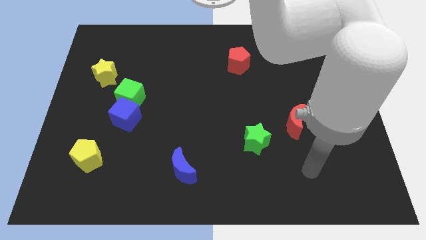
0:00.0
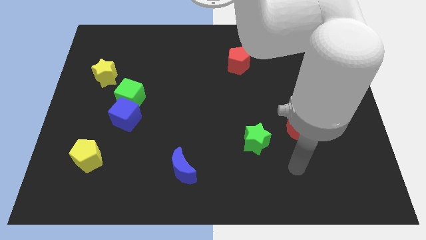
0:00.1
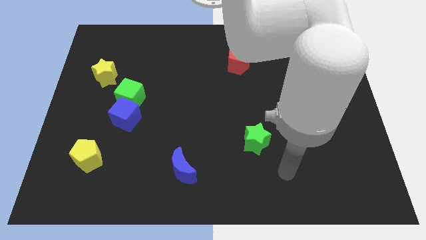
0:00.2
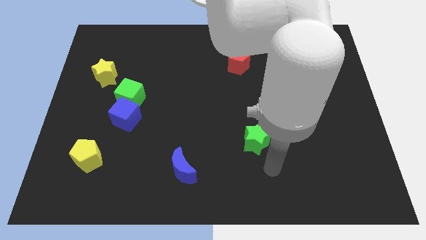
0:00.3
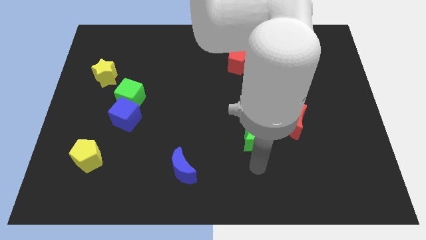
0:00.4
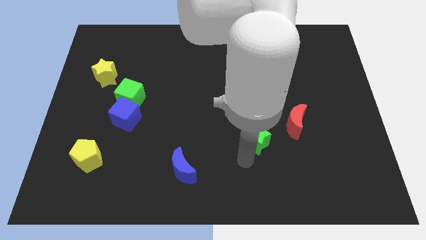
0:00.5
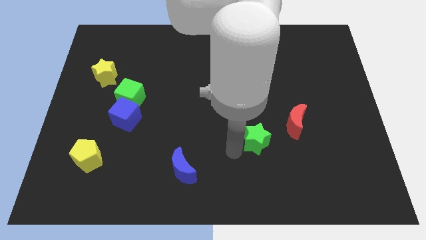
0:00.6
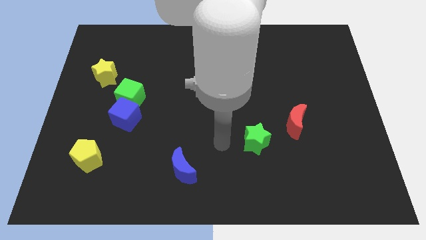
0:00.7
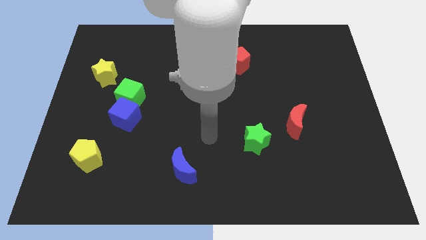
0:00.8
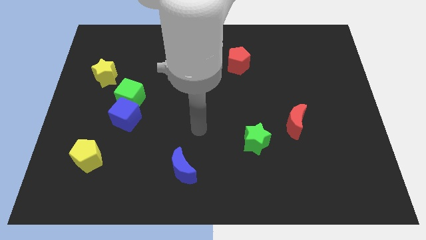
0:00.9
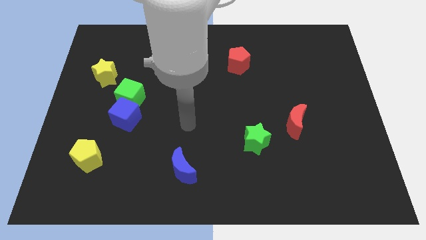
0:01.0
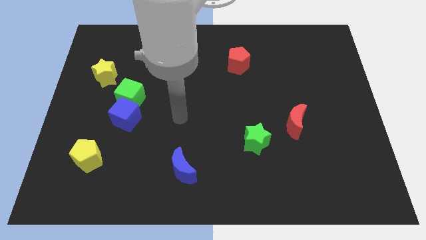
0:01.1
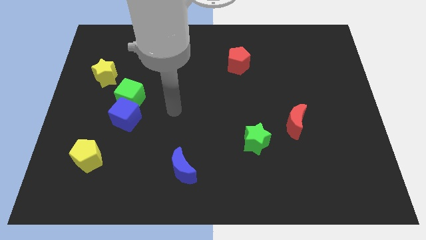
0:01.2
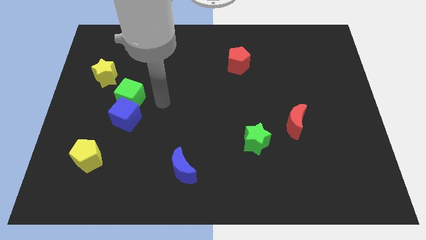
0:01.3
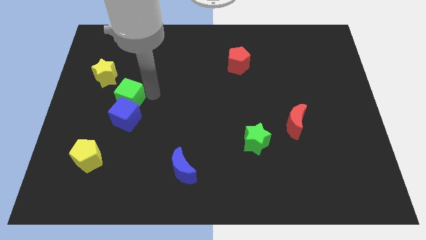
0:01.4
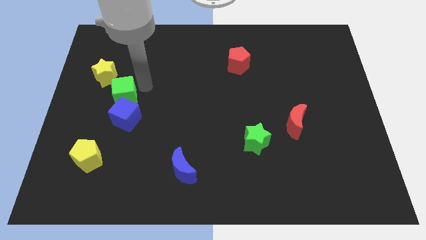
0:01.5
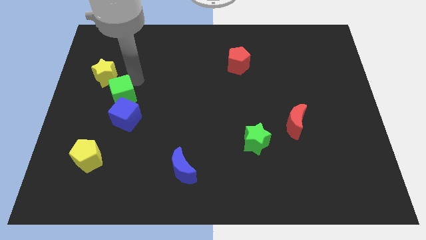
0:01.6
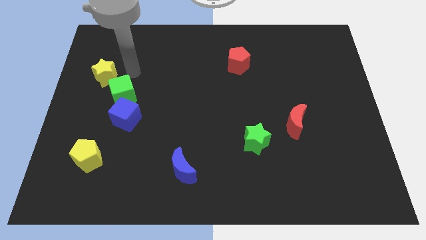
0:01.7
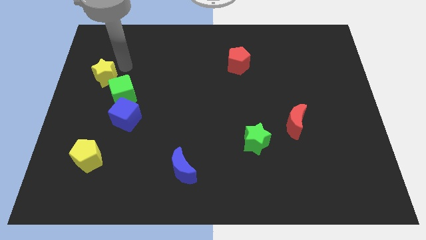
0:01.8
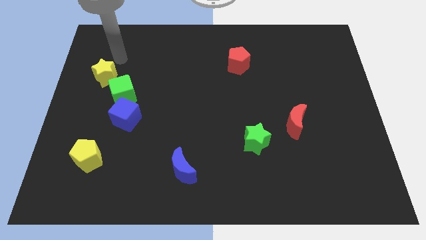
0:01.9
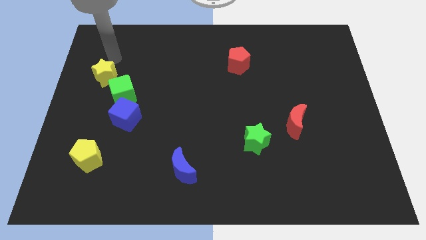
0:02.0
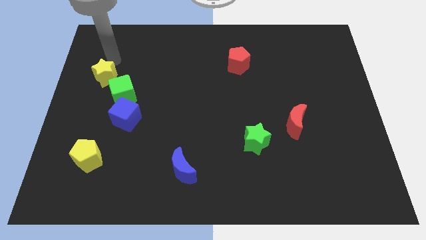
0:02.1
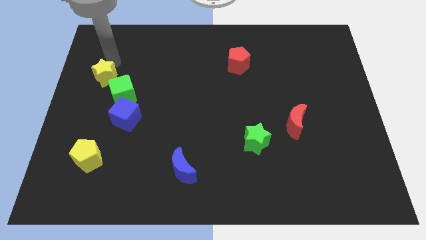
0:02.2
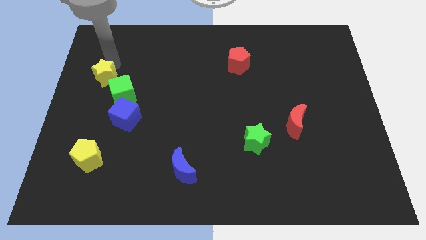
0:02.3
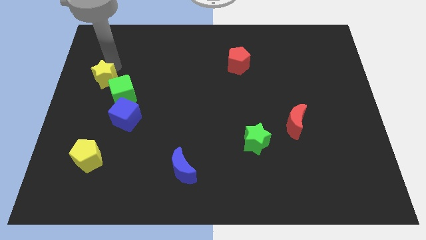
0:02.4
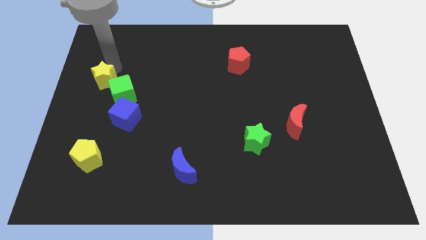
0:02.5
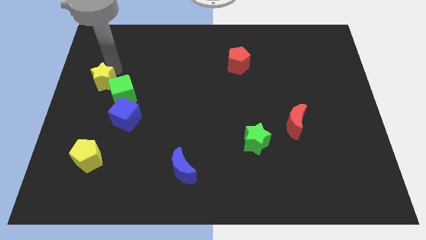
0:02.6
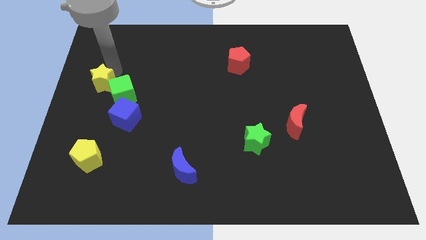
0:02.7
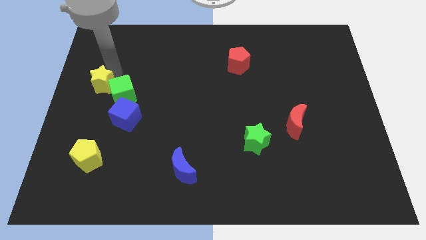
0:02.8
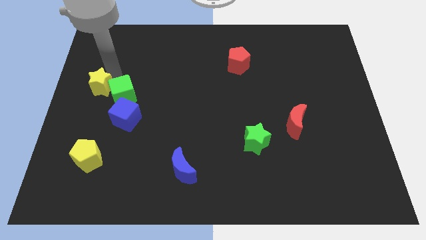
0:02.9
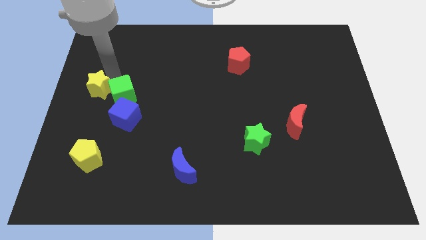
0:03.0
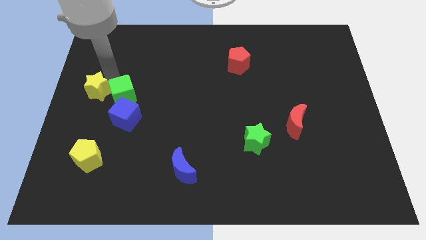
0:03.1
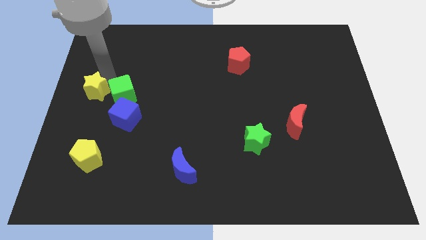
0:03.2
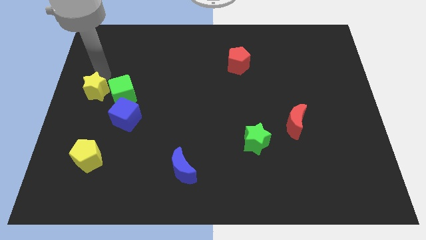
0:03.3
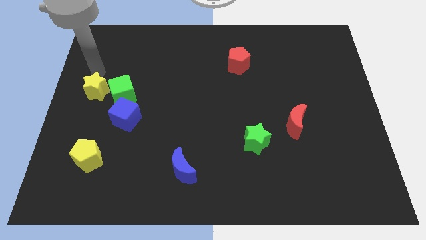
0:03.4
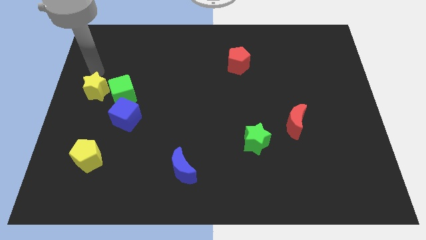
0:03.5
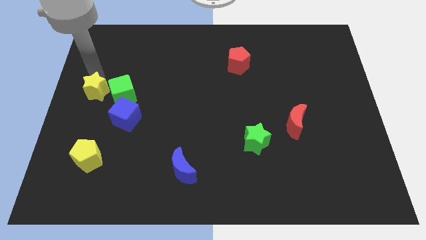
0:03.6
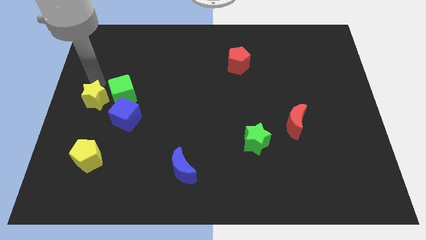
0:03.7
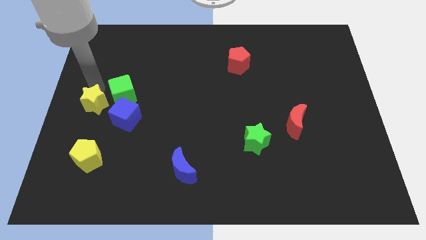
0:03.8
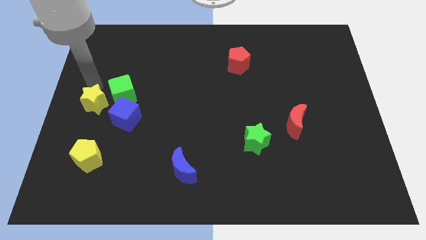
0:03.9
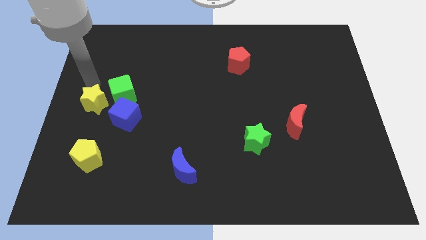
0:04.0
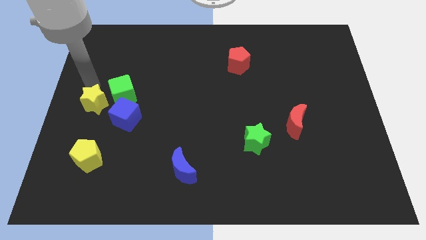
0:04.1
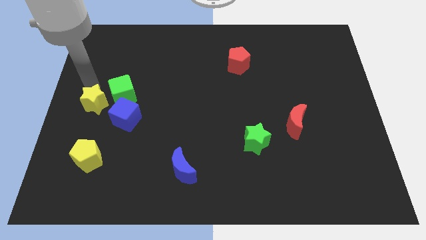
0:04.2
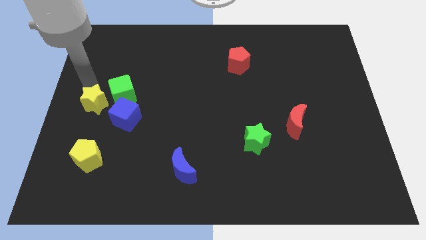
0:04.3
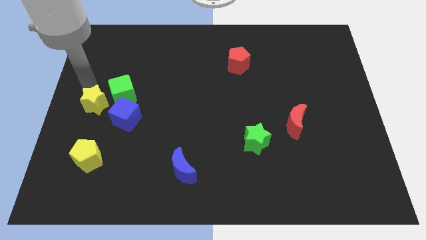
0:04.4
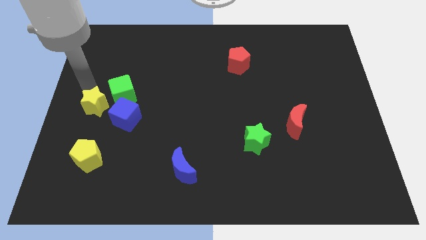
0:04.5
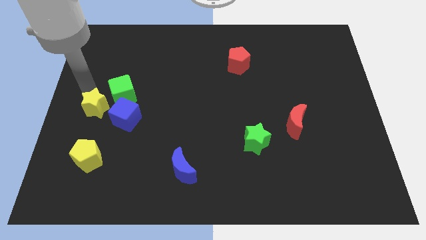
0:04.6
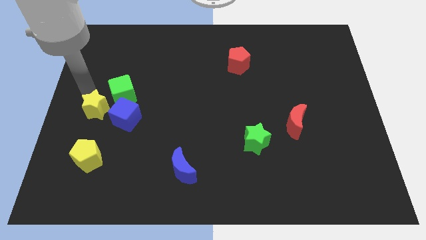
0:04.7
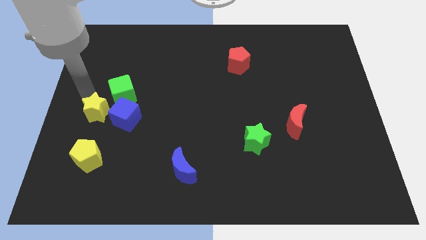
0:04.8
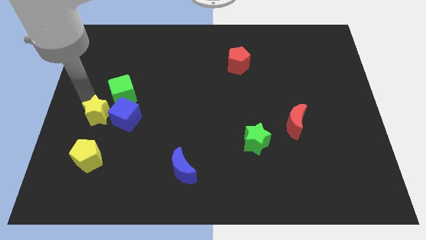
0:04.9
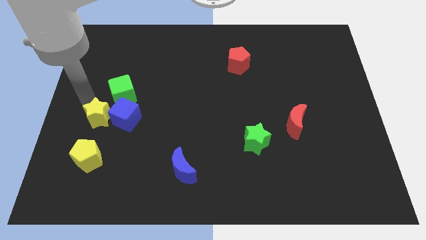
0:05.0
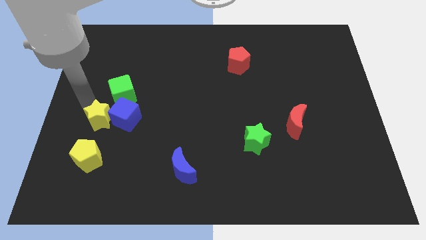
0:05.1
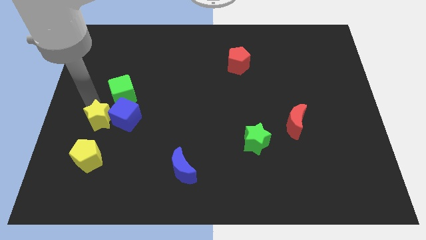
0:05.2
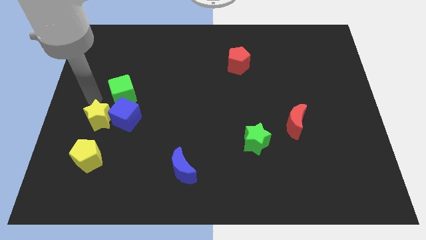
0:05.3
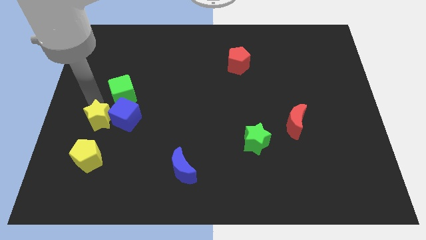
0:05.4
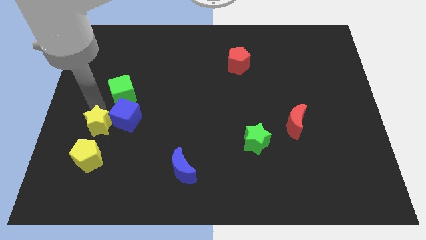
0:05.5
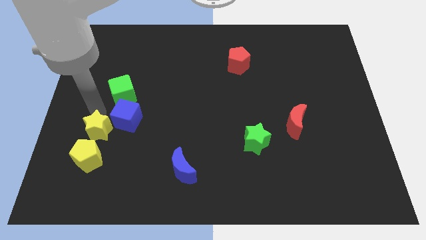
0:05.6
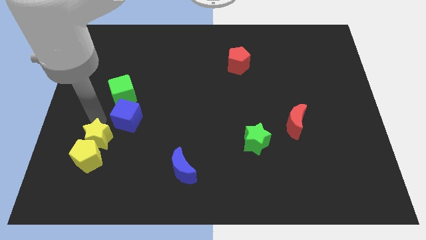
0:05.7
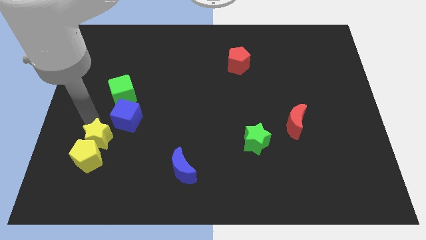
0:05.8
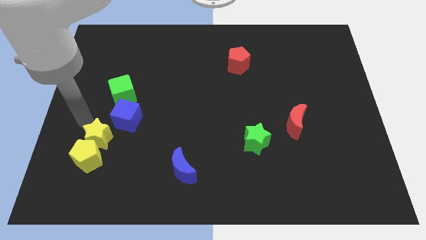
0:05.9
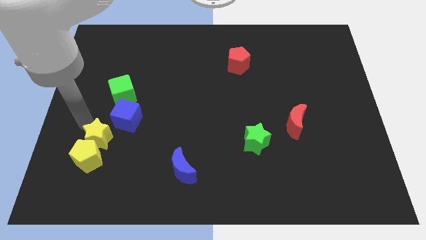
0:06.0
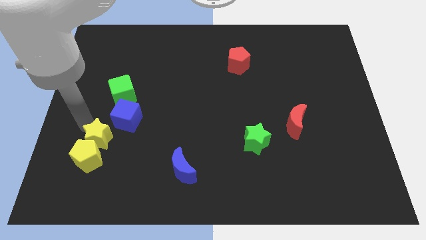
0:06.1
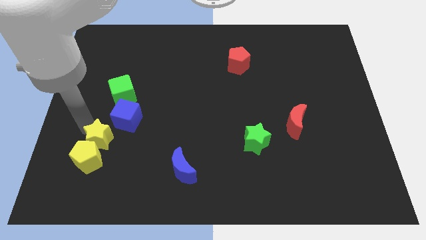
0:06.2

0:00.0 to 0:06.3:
slide the yellow star below the blue cube
